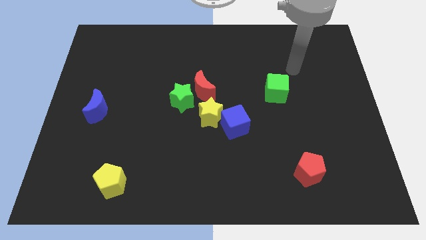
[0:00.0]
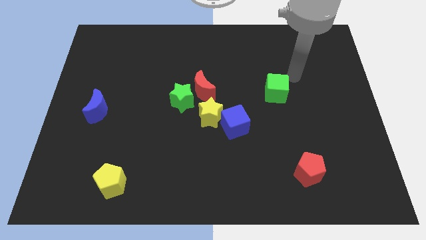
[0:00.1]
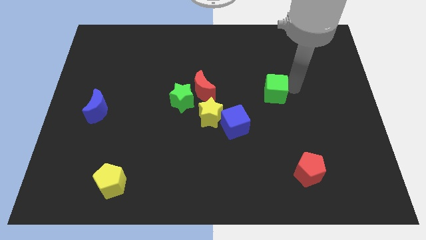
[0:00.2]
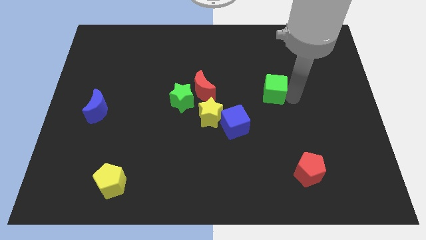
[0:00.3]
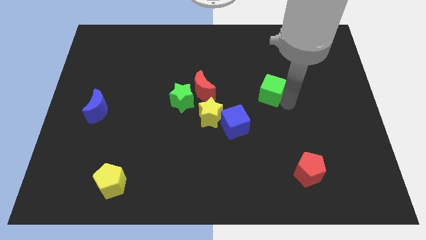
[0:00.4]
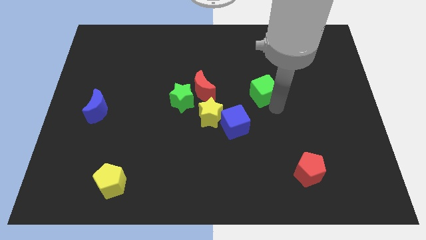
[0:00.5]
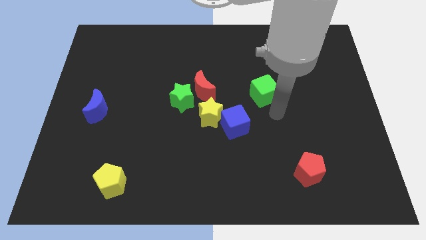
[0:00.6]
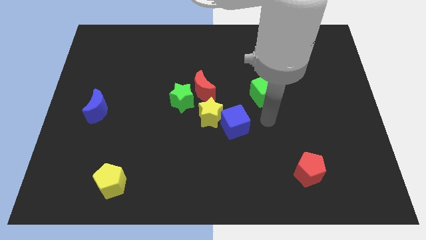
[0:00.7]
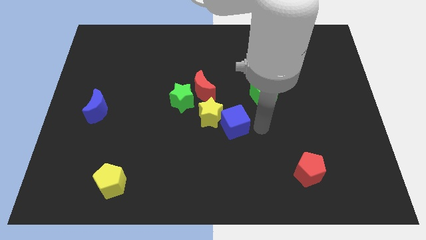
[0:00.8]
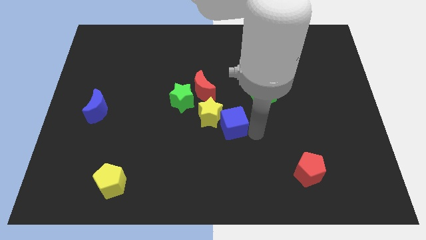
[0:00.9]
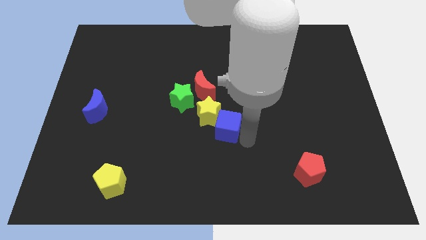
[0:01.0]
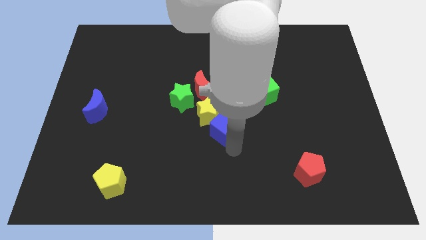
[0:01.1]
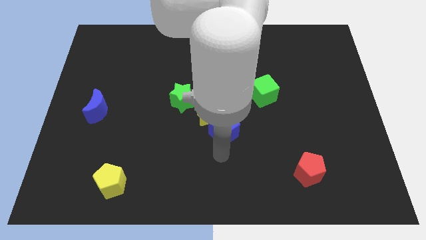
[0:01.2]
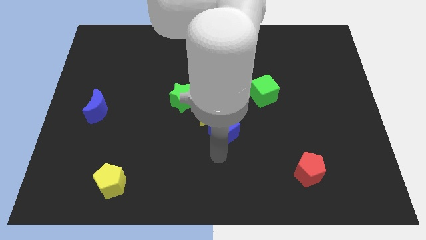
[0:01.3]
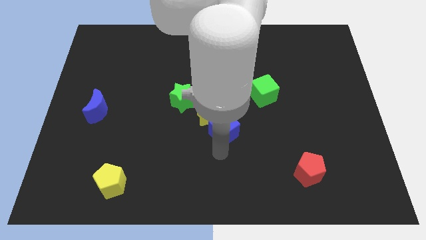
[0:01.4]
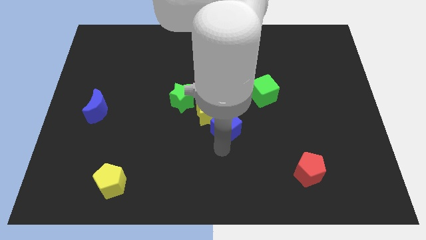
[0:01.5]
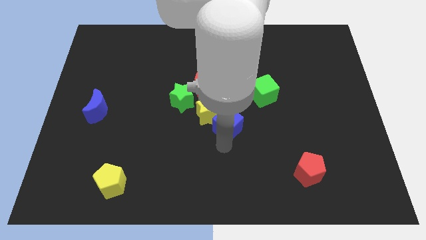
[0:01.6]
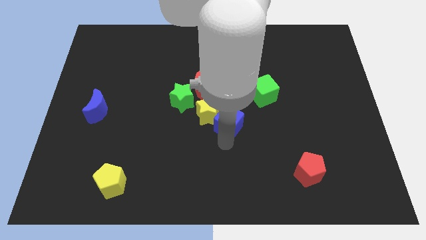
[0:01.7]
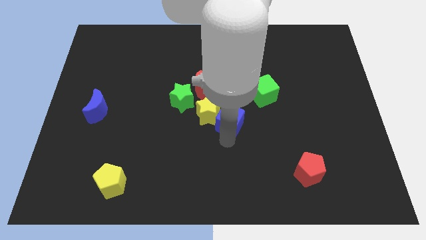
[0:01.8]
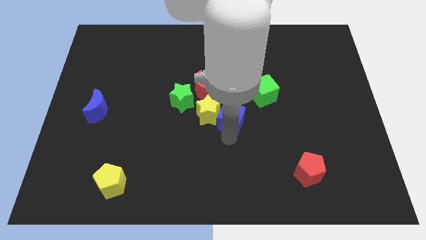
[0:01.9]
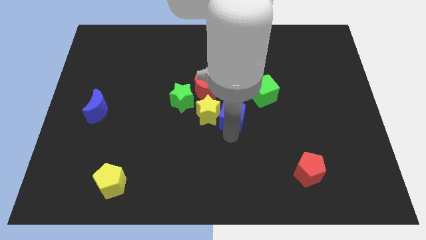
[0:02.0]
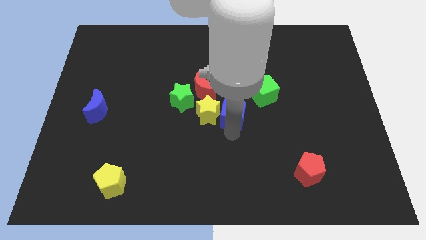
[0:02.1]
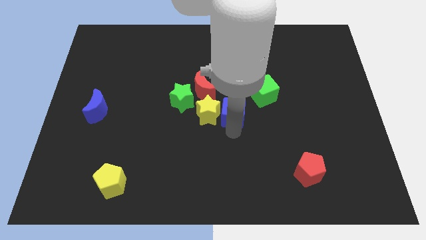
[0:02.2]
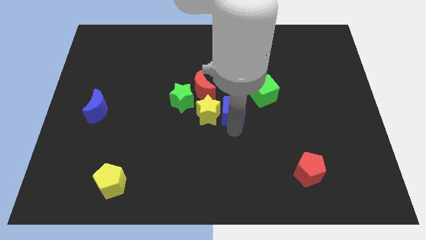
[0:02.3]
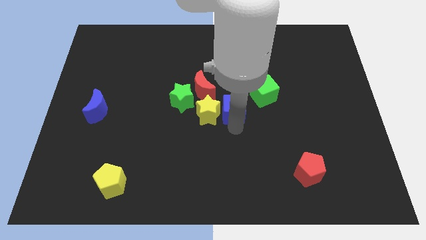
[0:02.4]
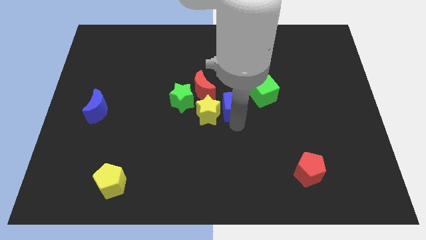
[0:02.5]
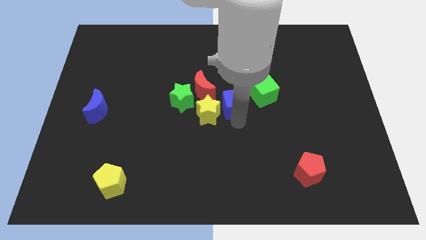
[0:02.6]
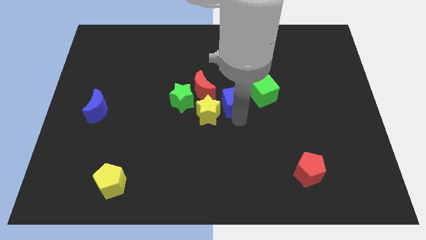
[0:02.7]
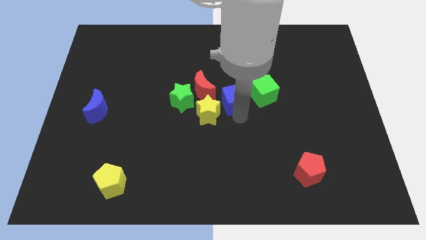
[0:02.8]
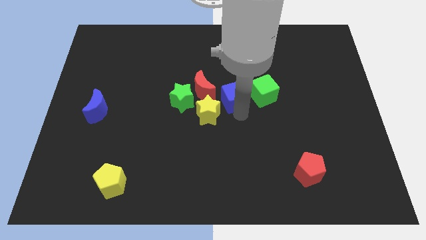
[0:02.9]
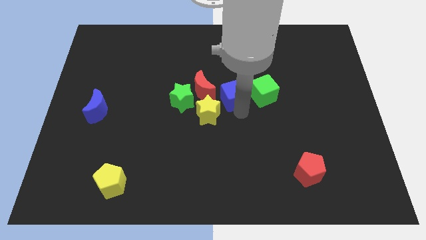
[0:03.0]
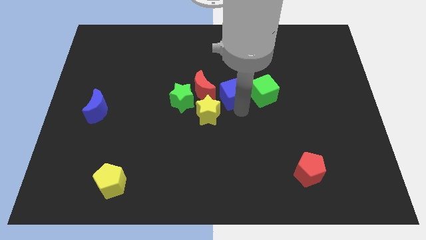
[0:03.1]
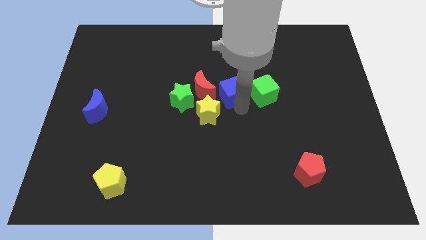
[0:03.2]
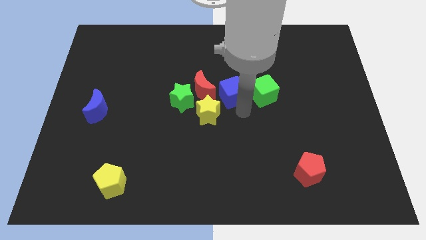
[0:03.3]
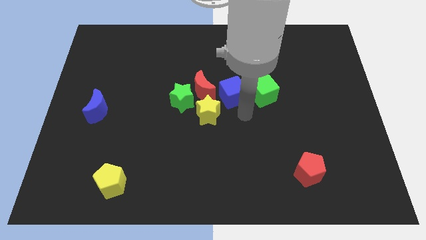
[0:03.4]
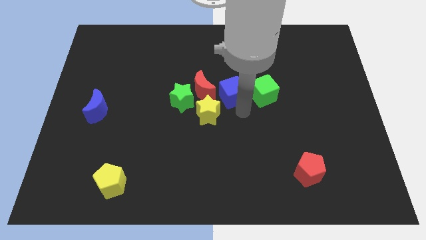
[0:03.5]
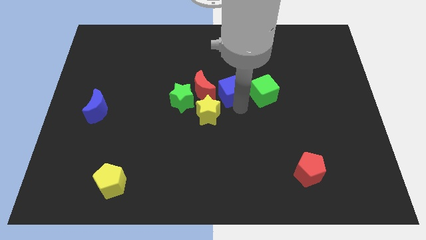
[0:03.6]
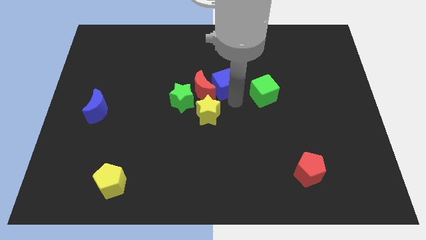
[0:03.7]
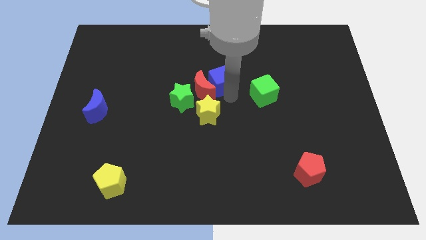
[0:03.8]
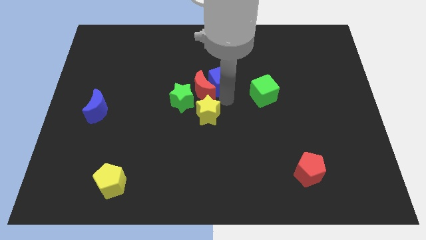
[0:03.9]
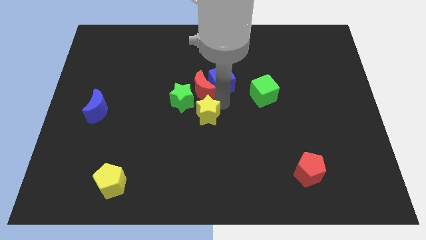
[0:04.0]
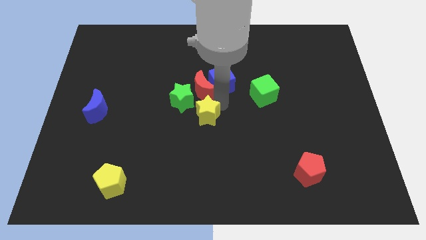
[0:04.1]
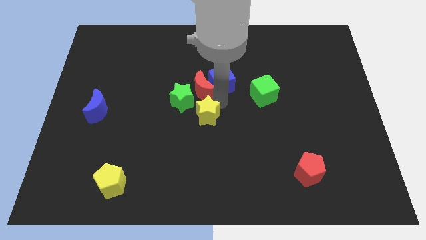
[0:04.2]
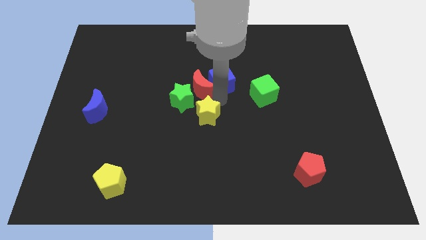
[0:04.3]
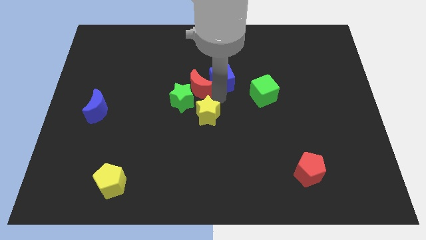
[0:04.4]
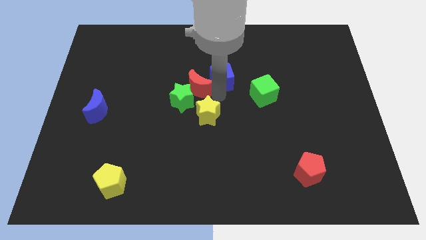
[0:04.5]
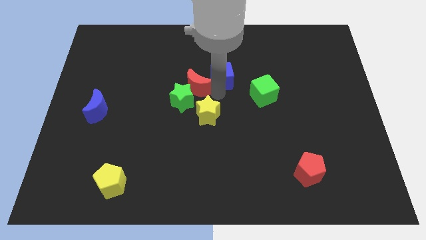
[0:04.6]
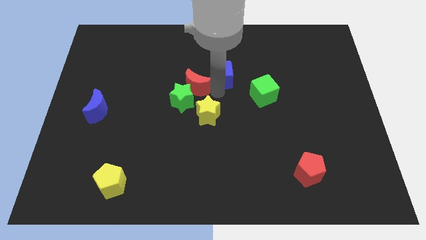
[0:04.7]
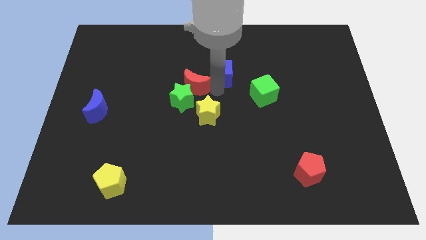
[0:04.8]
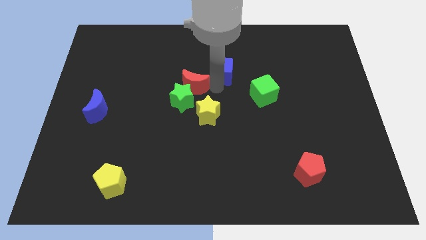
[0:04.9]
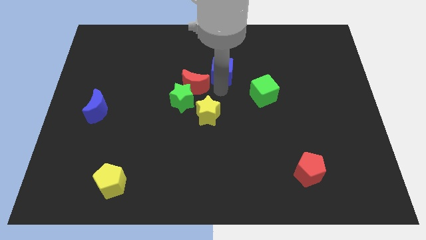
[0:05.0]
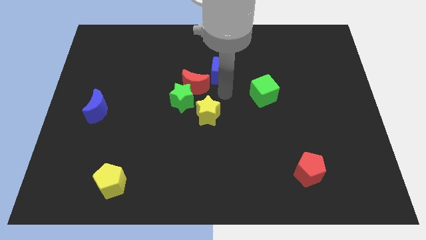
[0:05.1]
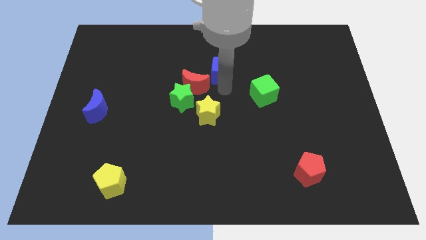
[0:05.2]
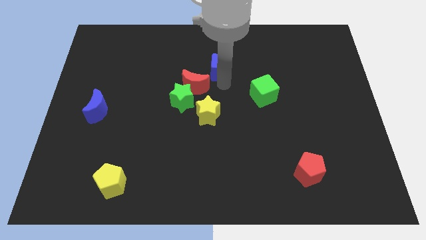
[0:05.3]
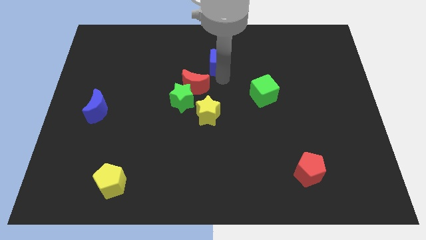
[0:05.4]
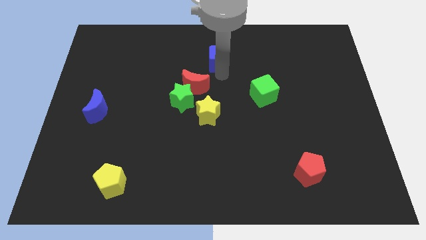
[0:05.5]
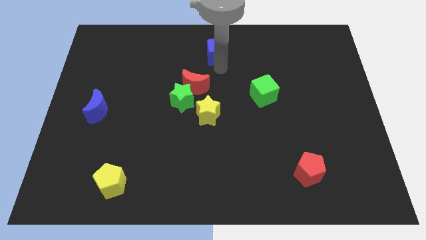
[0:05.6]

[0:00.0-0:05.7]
move the blue cube to the top

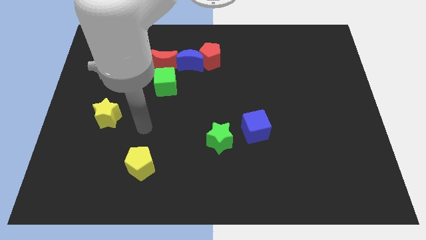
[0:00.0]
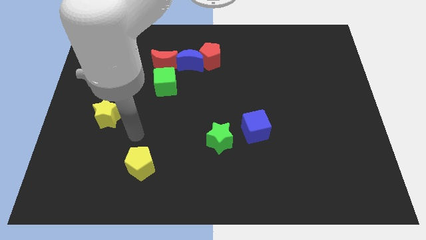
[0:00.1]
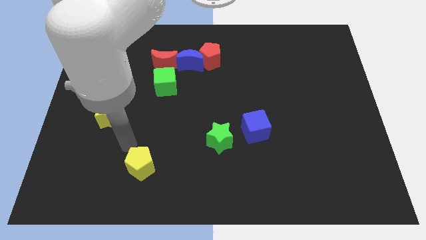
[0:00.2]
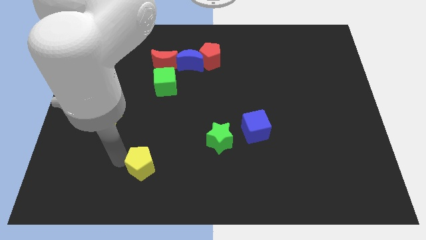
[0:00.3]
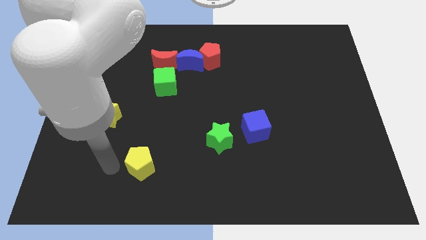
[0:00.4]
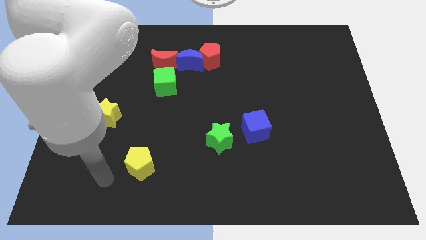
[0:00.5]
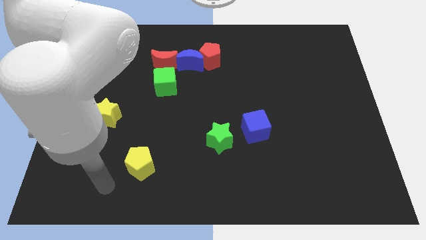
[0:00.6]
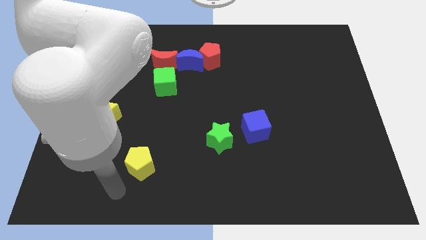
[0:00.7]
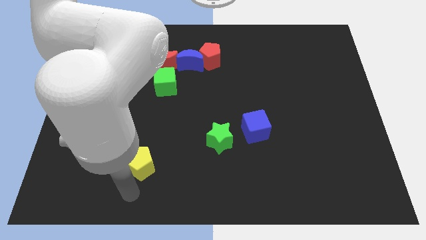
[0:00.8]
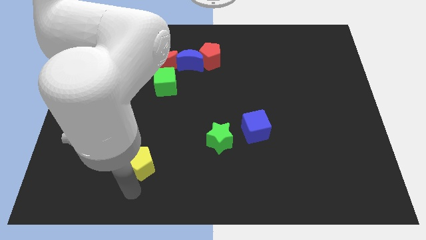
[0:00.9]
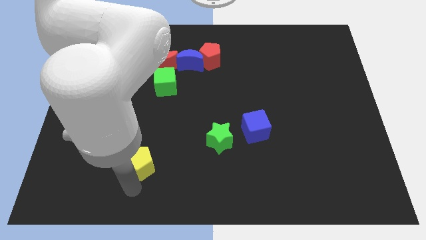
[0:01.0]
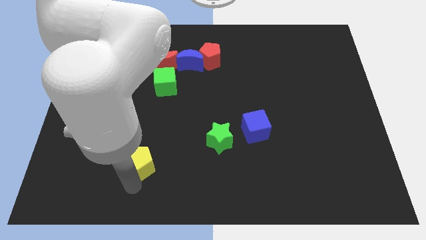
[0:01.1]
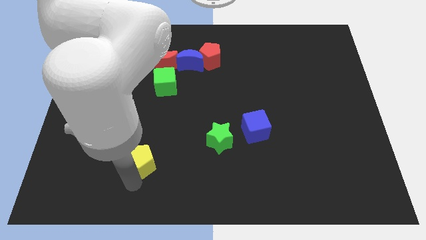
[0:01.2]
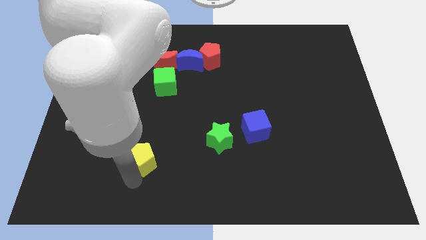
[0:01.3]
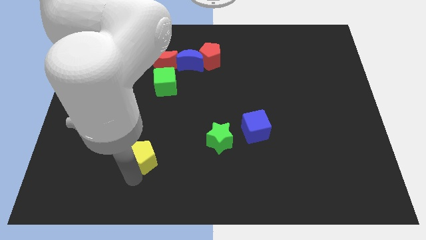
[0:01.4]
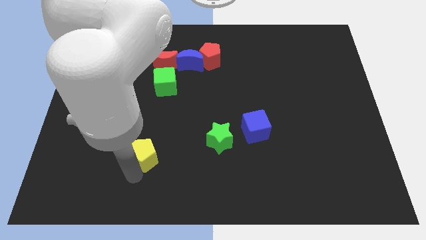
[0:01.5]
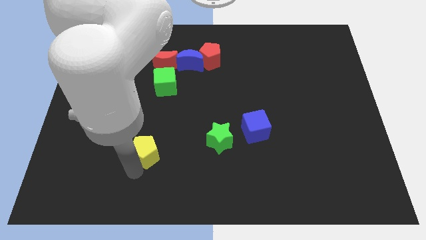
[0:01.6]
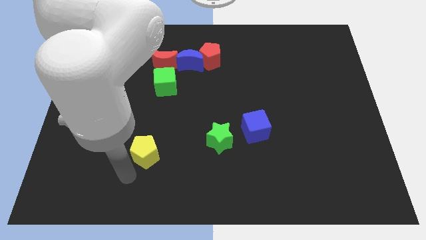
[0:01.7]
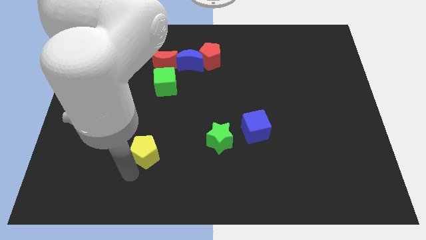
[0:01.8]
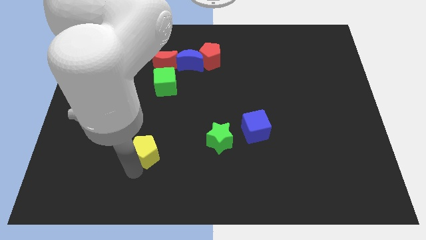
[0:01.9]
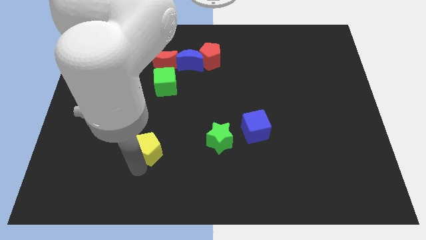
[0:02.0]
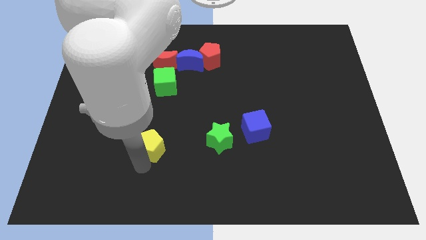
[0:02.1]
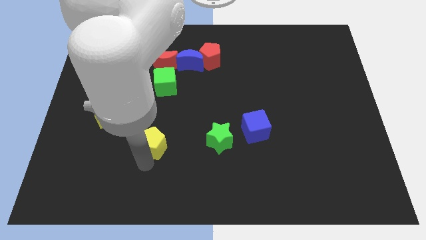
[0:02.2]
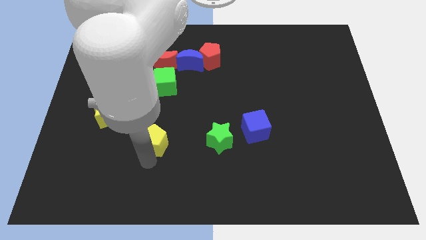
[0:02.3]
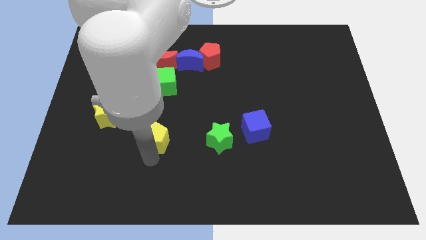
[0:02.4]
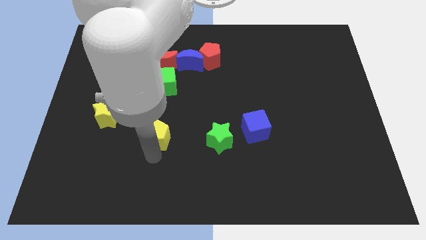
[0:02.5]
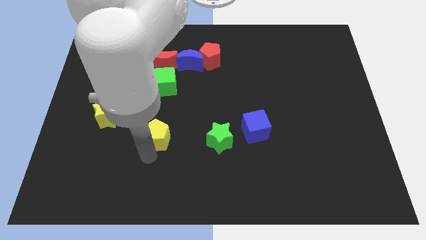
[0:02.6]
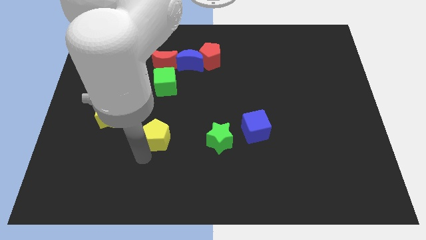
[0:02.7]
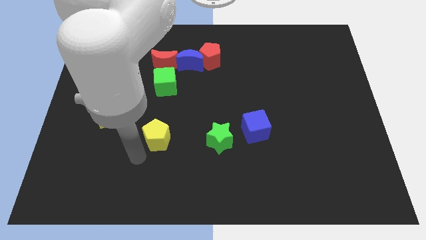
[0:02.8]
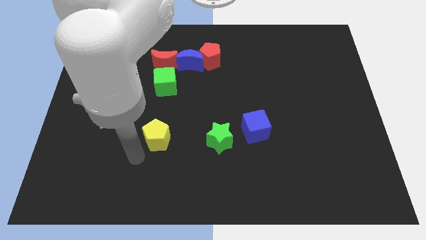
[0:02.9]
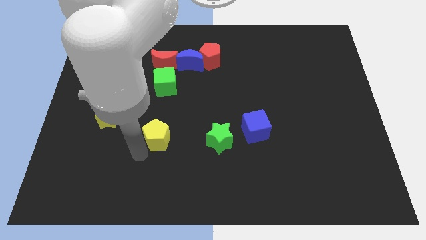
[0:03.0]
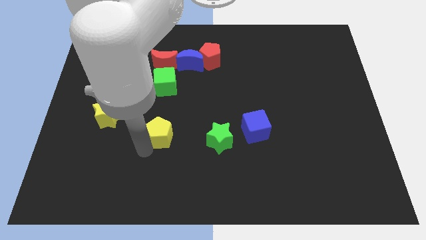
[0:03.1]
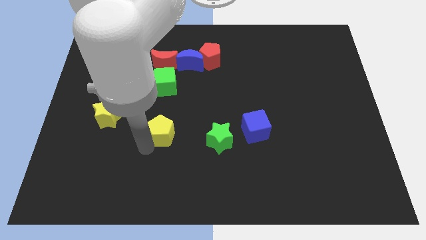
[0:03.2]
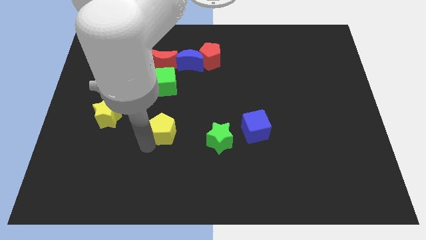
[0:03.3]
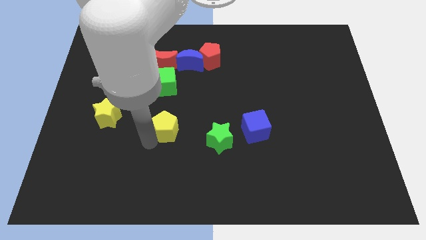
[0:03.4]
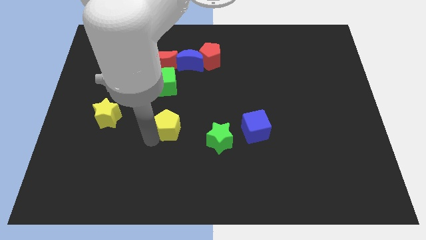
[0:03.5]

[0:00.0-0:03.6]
move the yellow pentagon to the middle
